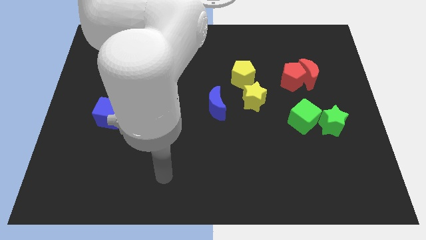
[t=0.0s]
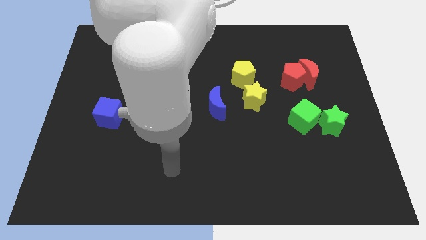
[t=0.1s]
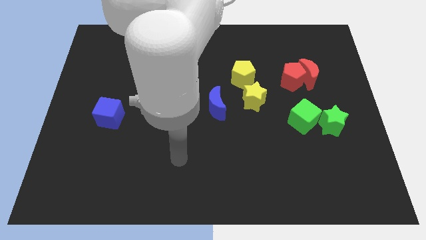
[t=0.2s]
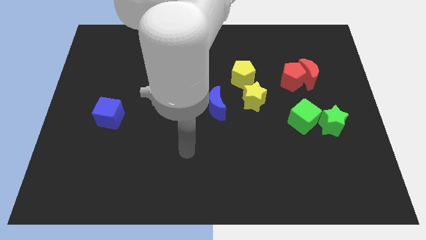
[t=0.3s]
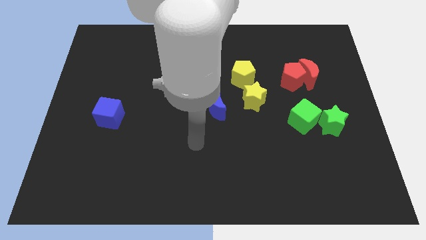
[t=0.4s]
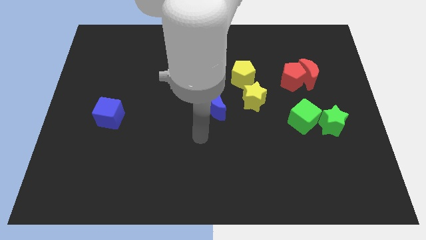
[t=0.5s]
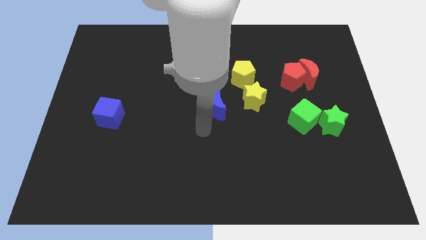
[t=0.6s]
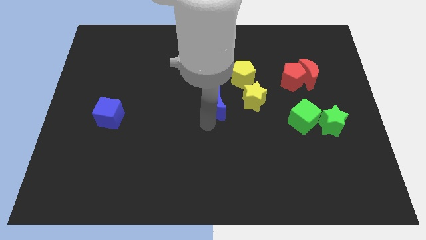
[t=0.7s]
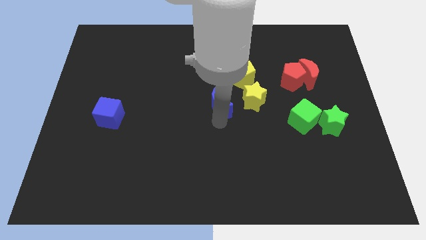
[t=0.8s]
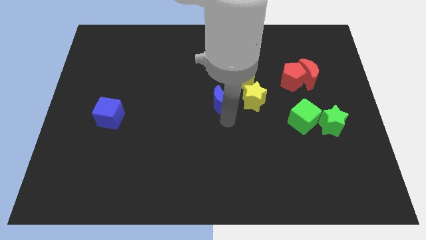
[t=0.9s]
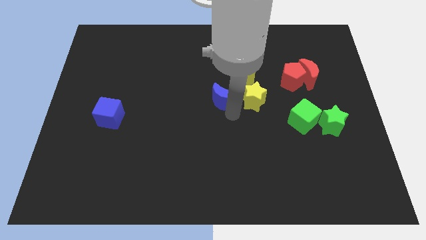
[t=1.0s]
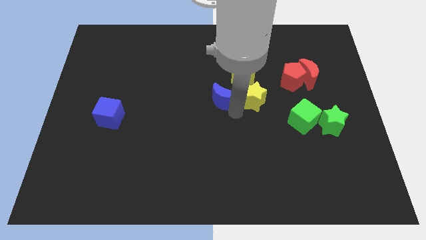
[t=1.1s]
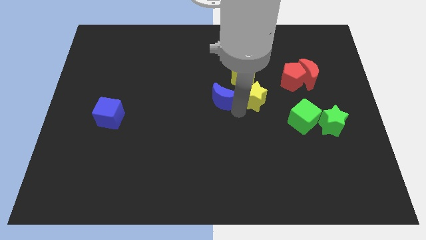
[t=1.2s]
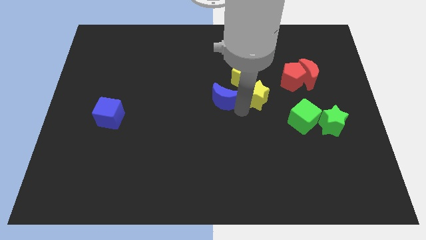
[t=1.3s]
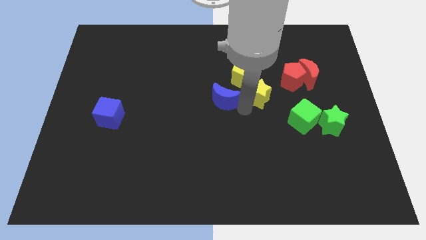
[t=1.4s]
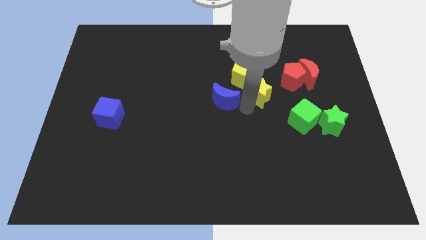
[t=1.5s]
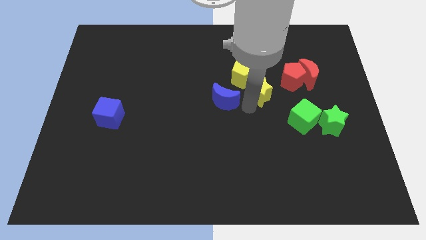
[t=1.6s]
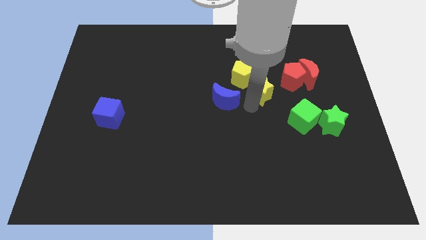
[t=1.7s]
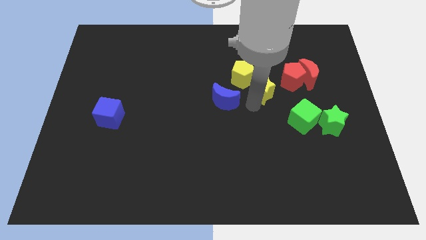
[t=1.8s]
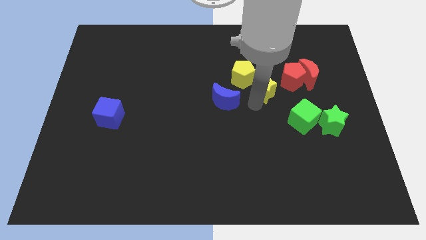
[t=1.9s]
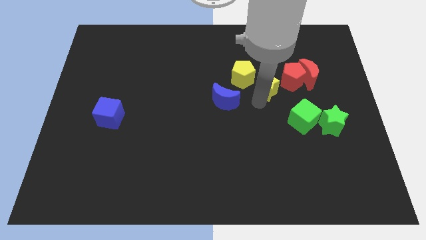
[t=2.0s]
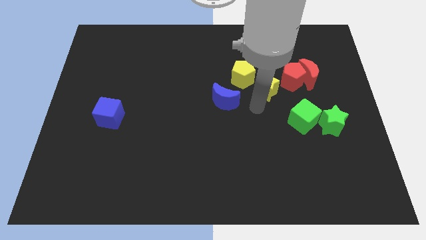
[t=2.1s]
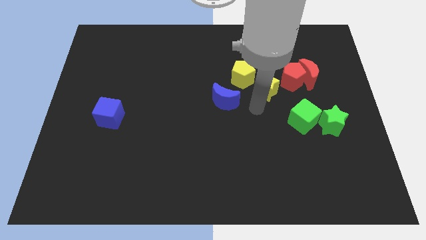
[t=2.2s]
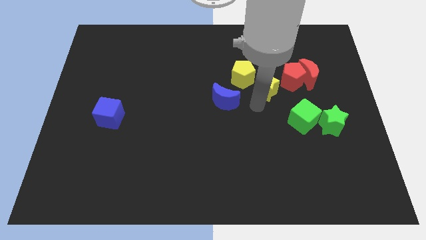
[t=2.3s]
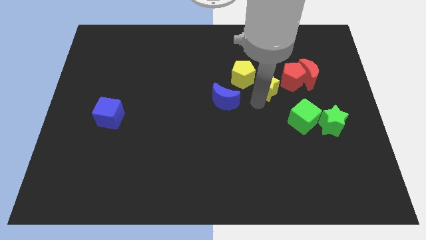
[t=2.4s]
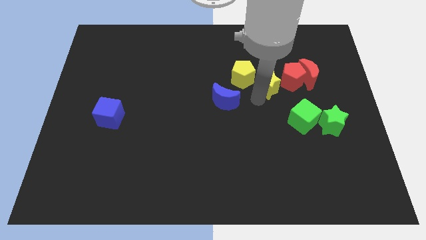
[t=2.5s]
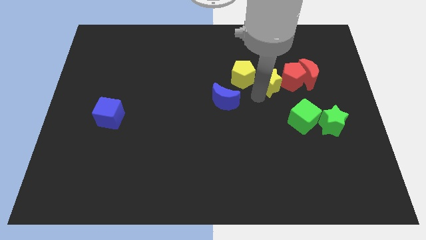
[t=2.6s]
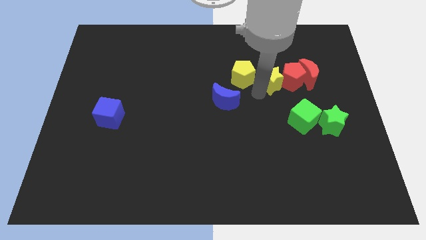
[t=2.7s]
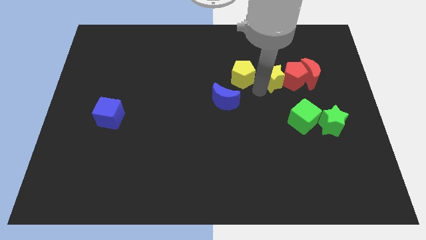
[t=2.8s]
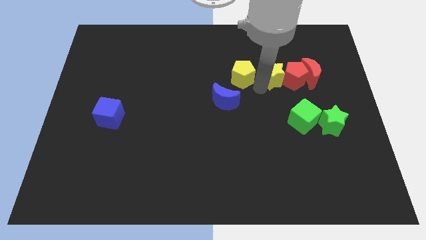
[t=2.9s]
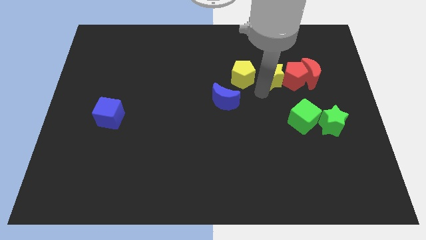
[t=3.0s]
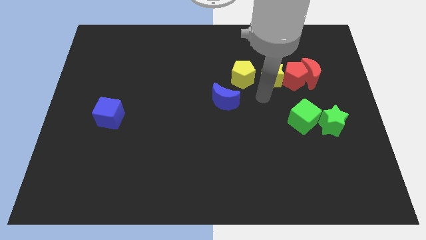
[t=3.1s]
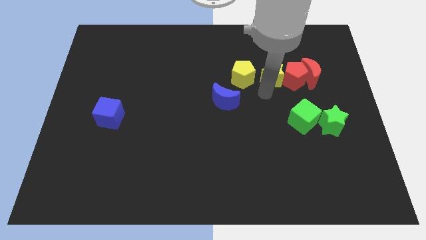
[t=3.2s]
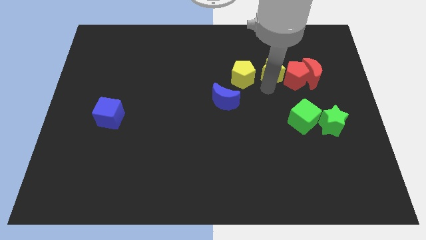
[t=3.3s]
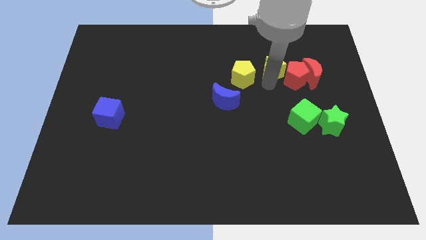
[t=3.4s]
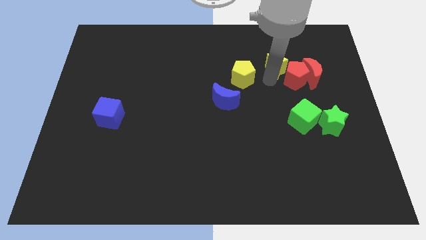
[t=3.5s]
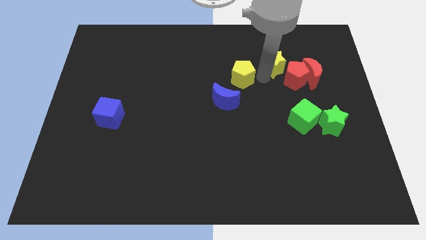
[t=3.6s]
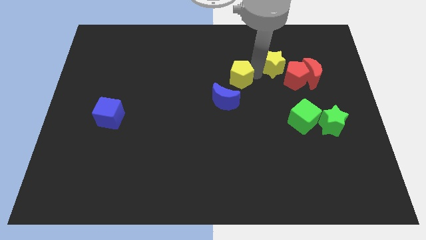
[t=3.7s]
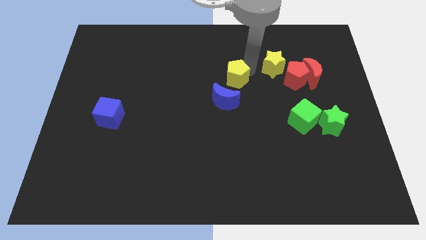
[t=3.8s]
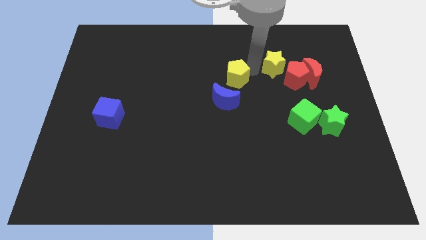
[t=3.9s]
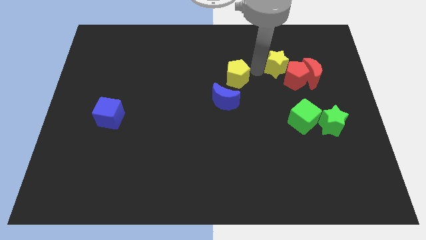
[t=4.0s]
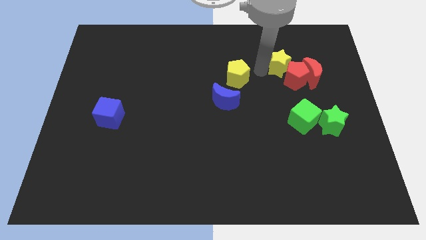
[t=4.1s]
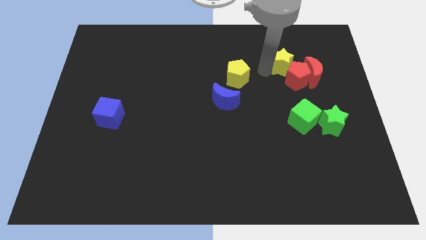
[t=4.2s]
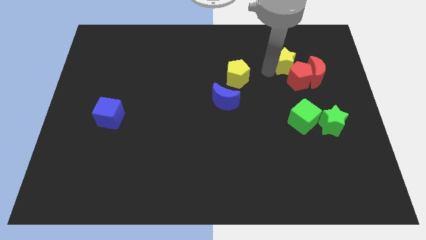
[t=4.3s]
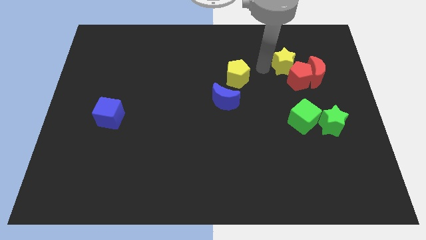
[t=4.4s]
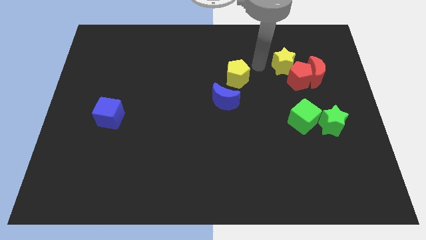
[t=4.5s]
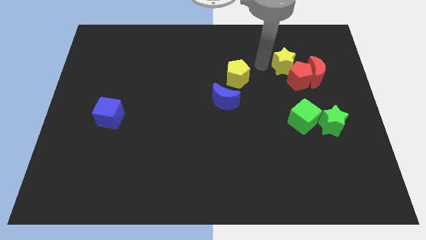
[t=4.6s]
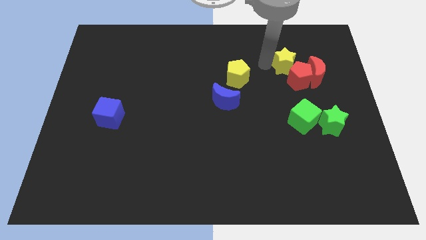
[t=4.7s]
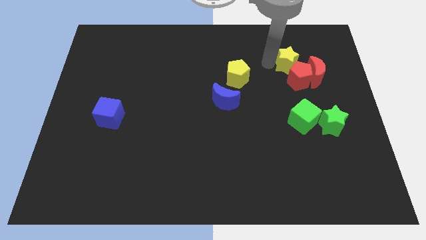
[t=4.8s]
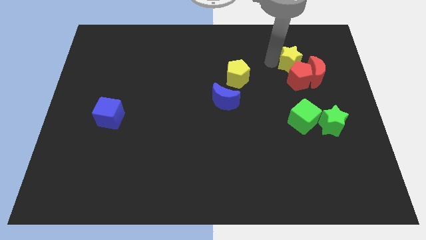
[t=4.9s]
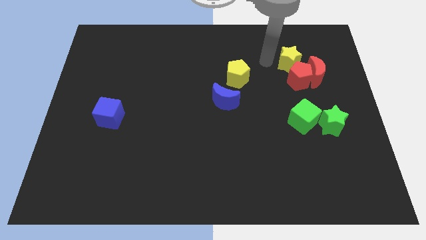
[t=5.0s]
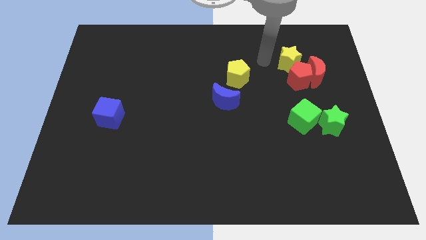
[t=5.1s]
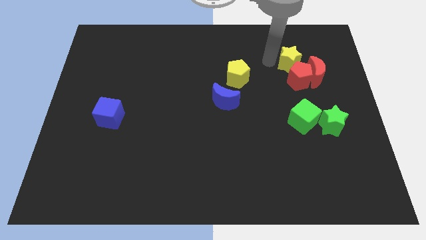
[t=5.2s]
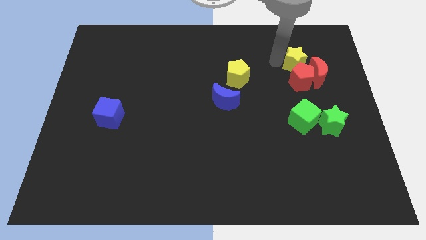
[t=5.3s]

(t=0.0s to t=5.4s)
put the yellow star to the top right side of the red pentagon

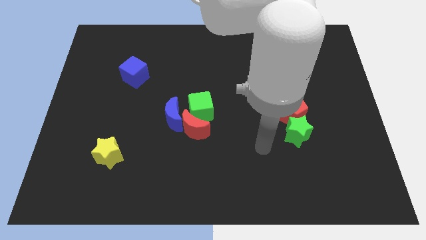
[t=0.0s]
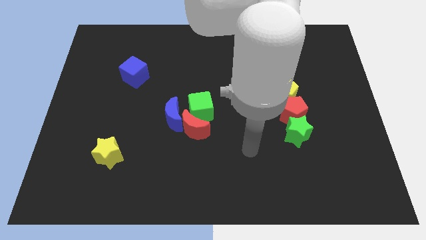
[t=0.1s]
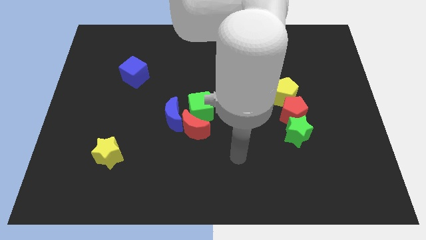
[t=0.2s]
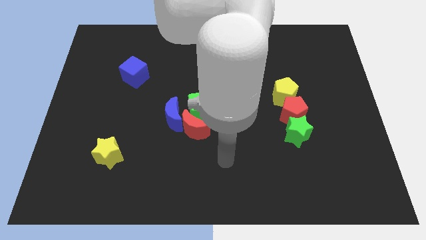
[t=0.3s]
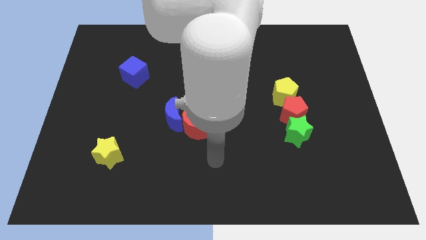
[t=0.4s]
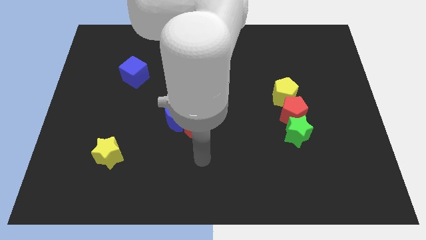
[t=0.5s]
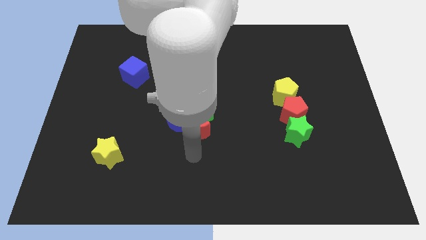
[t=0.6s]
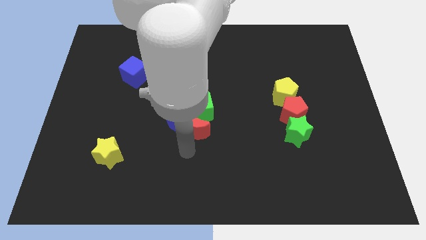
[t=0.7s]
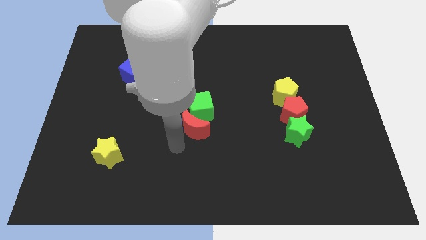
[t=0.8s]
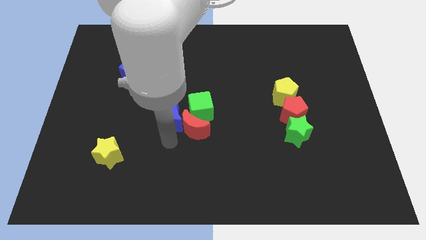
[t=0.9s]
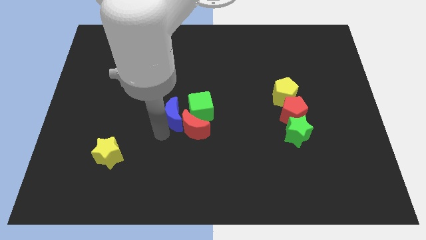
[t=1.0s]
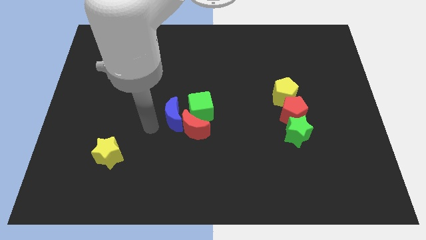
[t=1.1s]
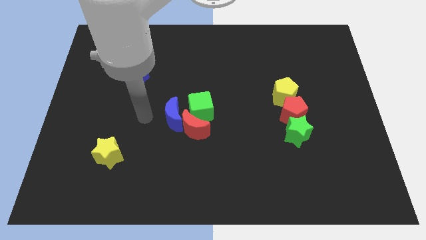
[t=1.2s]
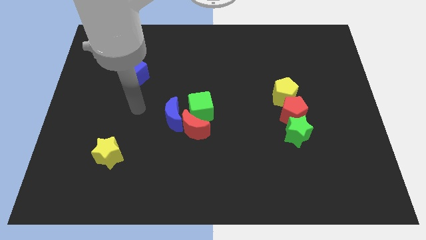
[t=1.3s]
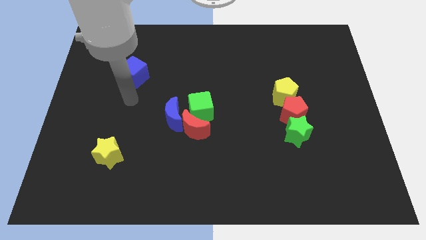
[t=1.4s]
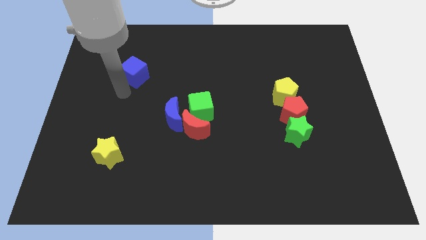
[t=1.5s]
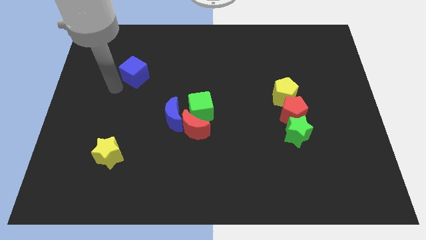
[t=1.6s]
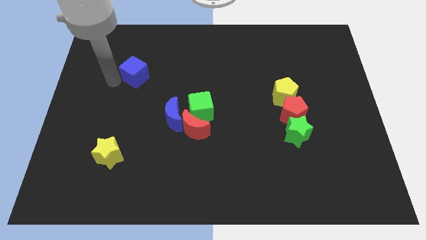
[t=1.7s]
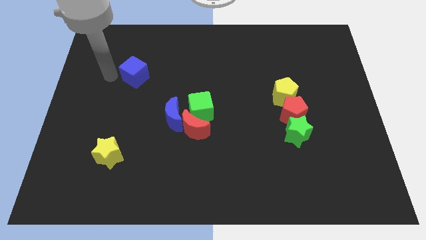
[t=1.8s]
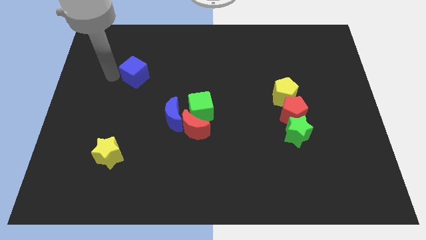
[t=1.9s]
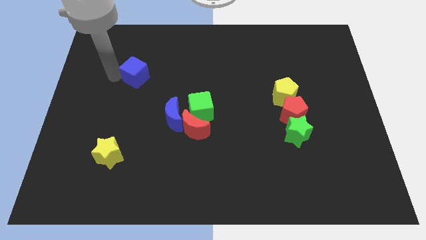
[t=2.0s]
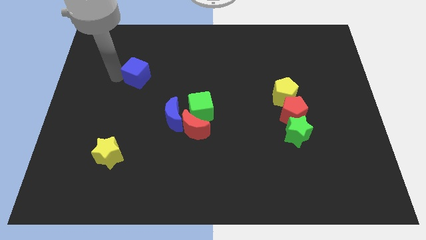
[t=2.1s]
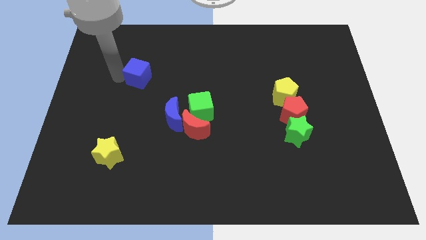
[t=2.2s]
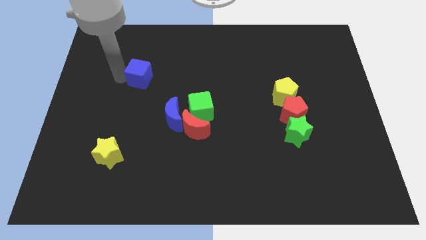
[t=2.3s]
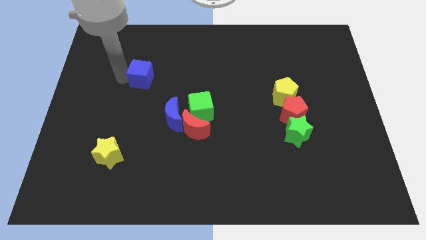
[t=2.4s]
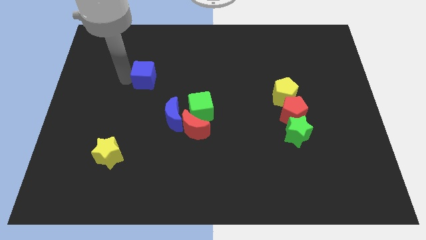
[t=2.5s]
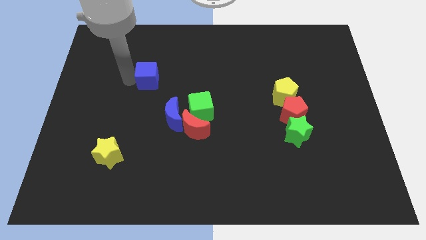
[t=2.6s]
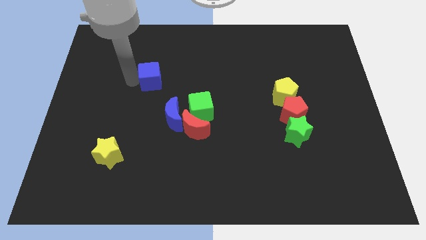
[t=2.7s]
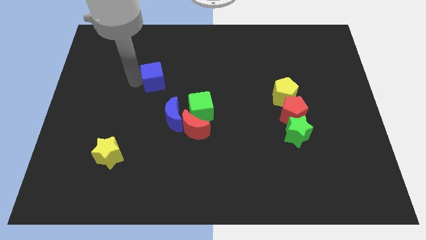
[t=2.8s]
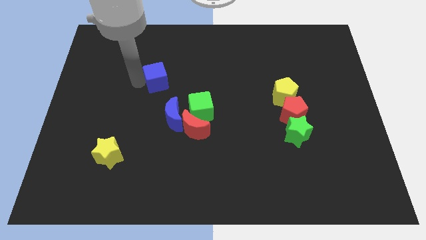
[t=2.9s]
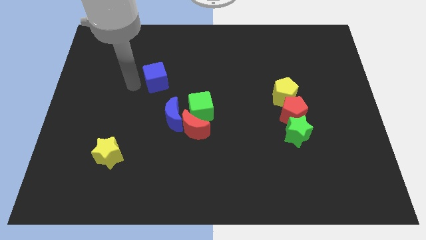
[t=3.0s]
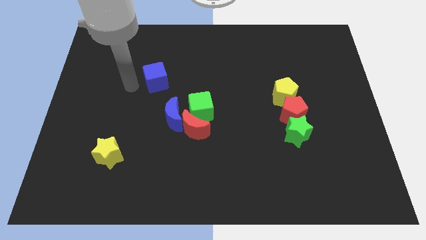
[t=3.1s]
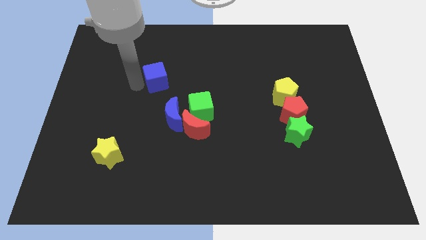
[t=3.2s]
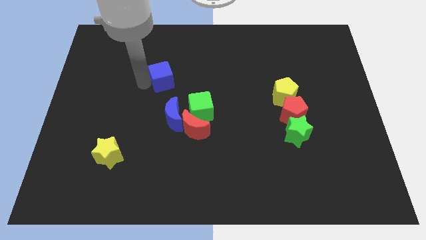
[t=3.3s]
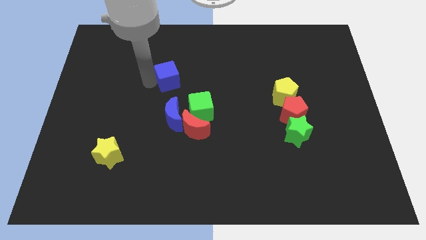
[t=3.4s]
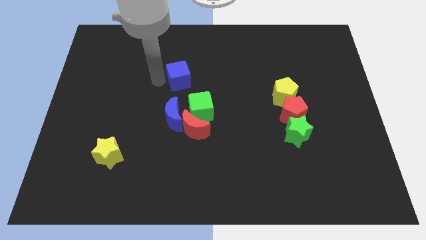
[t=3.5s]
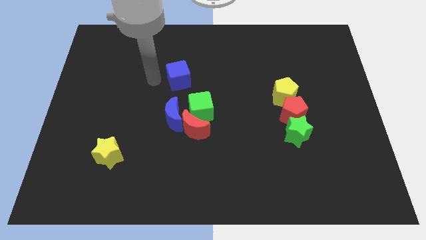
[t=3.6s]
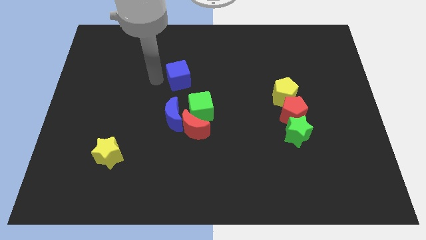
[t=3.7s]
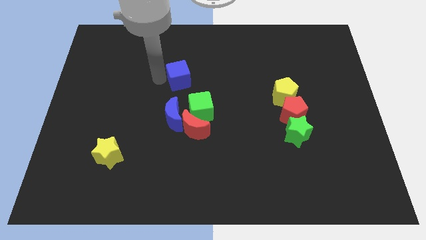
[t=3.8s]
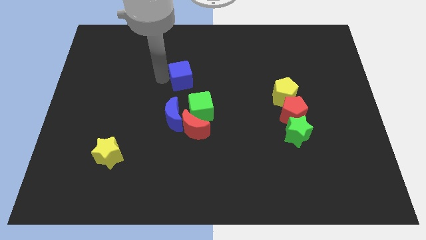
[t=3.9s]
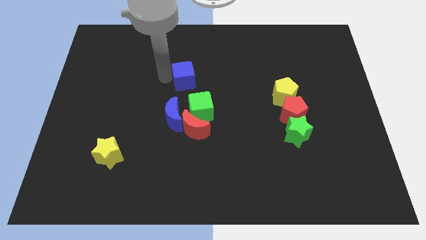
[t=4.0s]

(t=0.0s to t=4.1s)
move the blue cube to the top of the green cube
